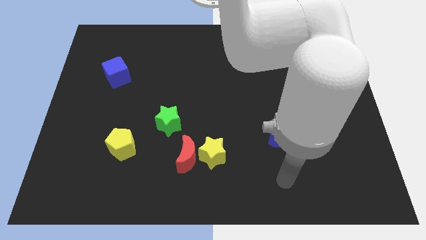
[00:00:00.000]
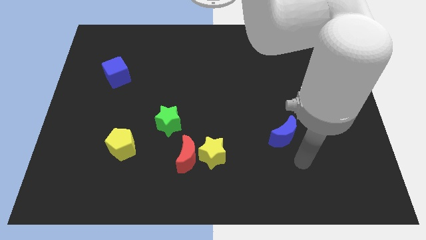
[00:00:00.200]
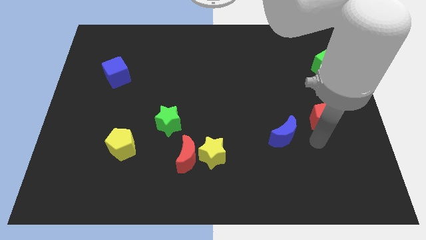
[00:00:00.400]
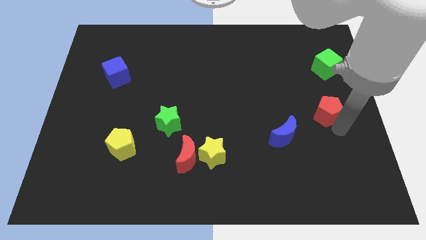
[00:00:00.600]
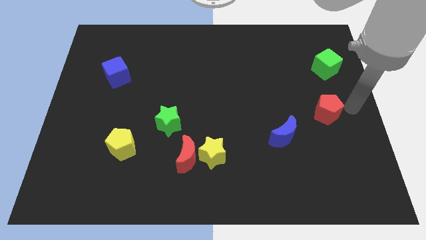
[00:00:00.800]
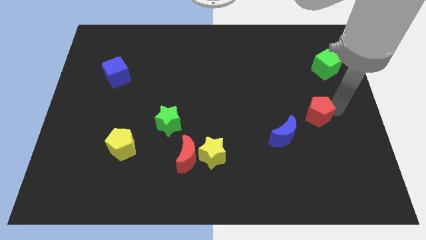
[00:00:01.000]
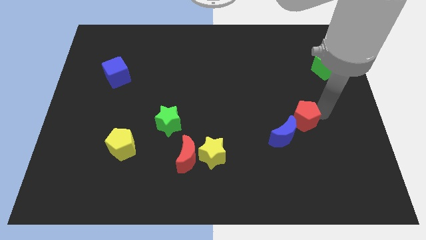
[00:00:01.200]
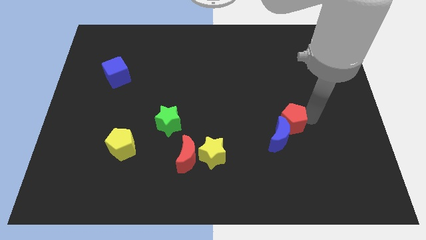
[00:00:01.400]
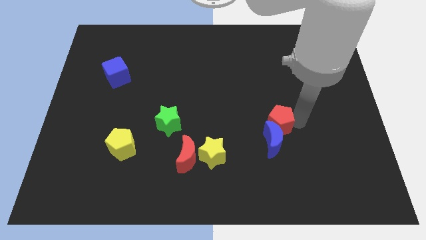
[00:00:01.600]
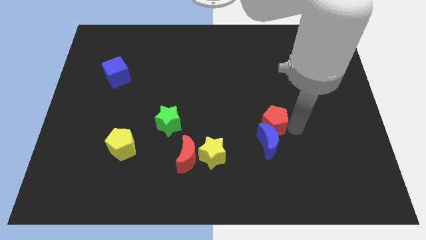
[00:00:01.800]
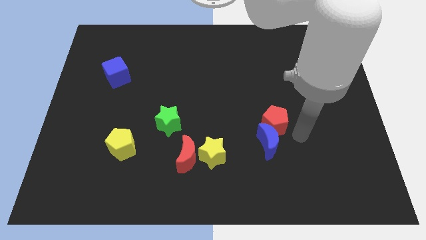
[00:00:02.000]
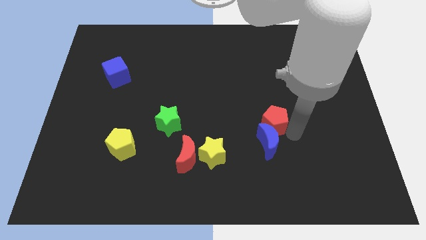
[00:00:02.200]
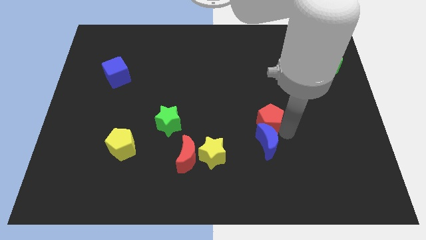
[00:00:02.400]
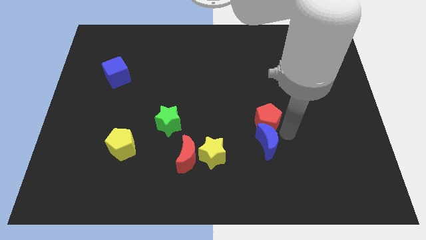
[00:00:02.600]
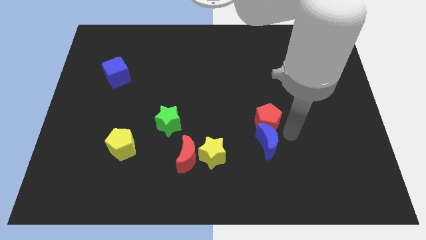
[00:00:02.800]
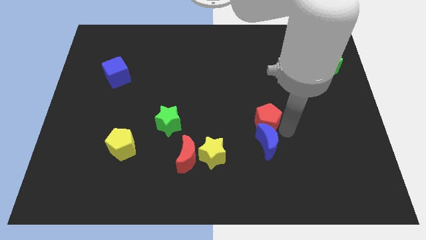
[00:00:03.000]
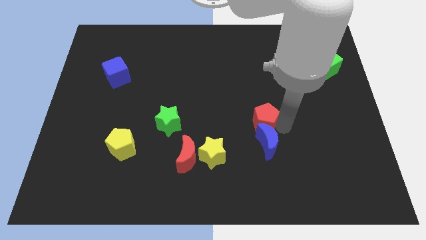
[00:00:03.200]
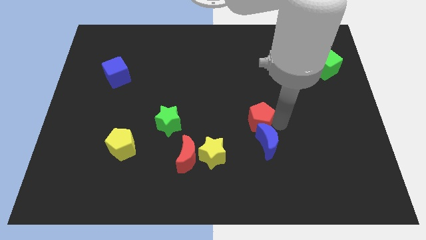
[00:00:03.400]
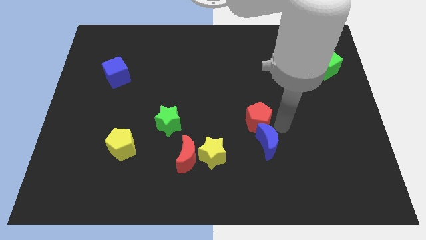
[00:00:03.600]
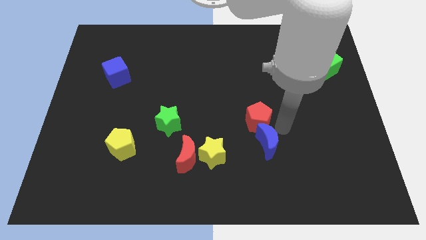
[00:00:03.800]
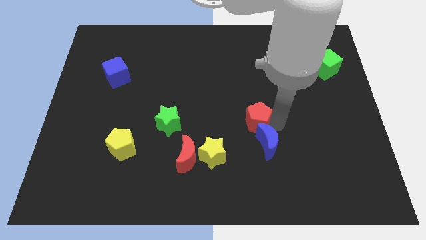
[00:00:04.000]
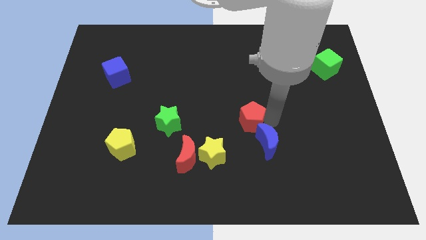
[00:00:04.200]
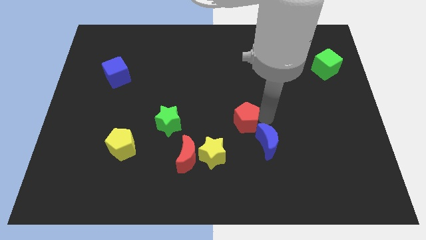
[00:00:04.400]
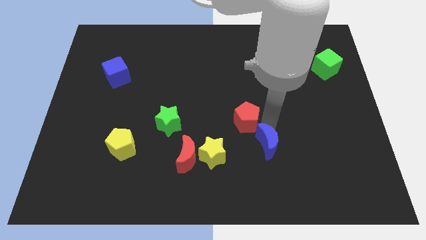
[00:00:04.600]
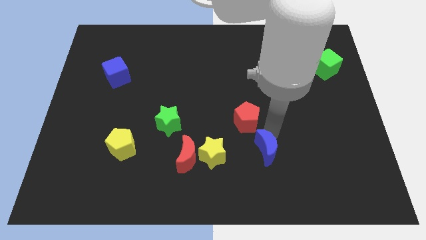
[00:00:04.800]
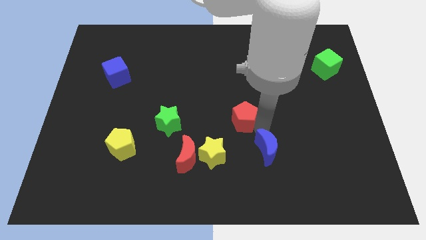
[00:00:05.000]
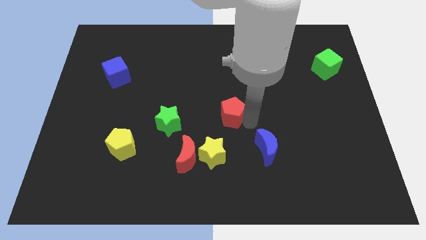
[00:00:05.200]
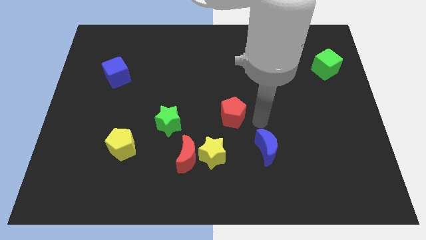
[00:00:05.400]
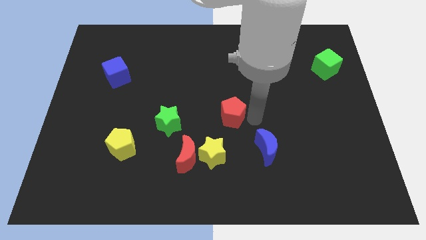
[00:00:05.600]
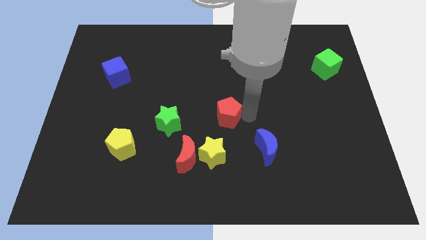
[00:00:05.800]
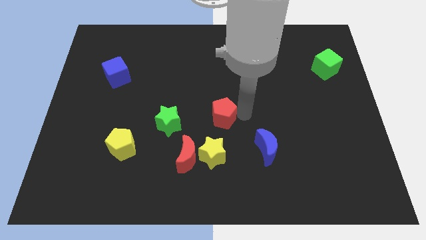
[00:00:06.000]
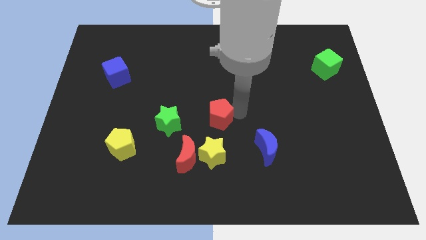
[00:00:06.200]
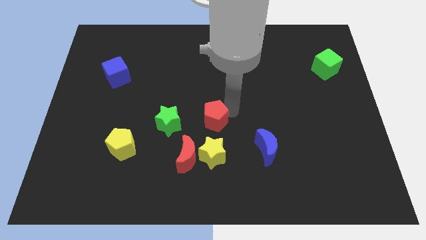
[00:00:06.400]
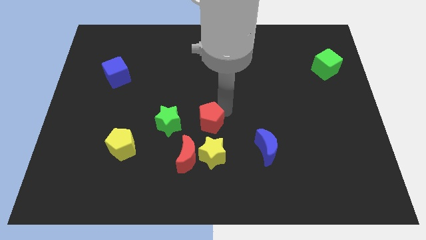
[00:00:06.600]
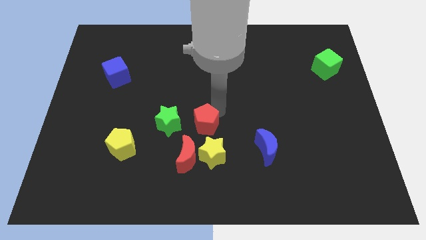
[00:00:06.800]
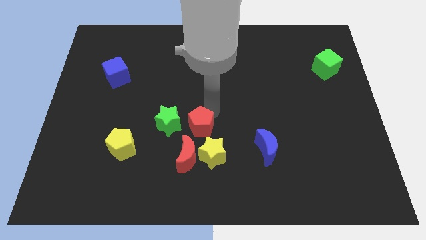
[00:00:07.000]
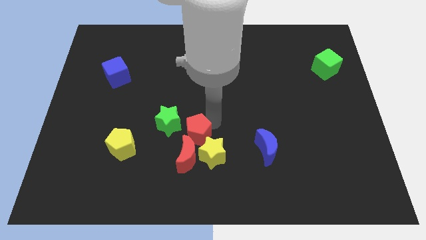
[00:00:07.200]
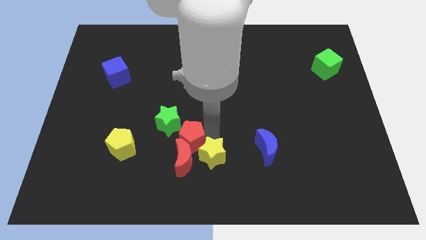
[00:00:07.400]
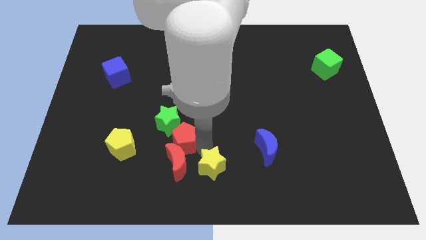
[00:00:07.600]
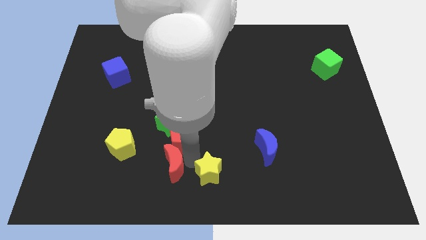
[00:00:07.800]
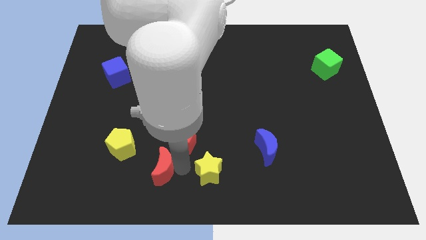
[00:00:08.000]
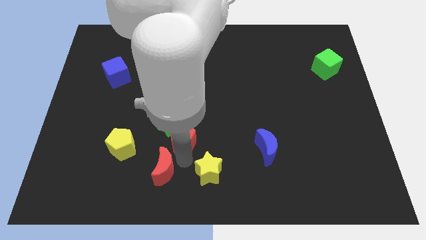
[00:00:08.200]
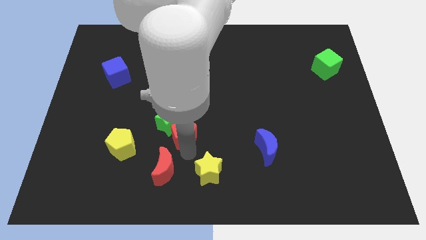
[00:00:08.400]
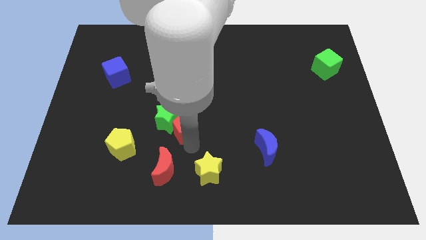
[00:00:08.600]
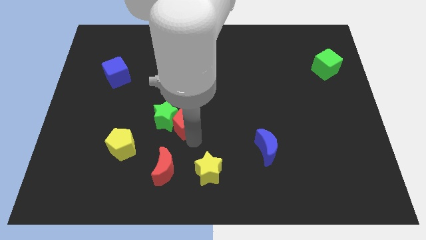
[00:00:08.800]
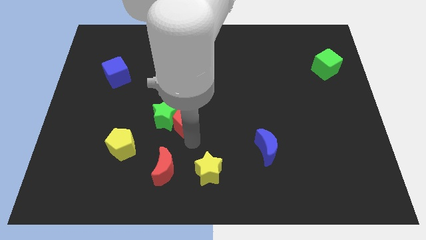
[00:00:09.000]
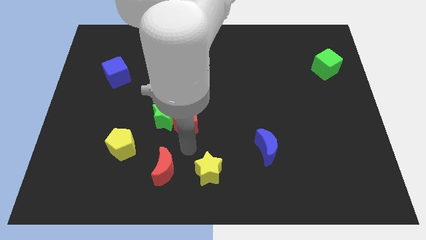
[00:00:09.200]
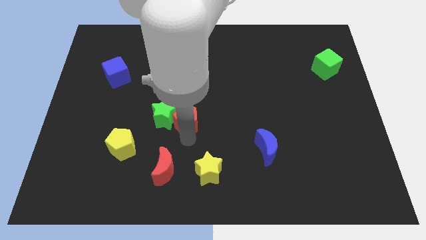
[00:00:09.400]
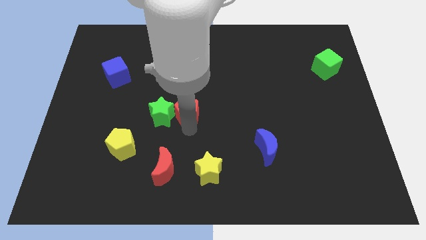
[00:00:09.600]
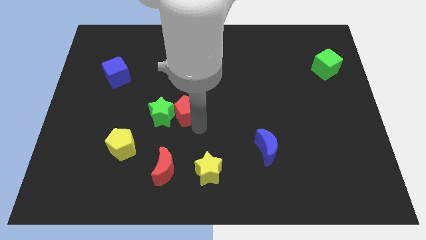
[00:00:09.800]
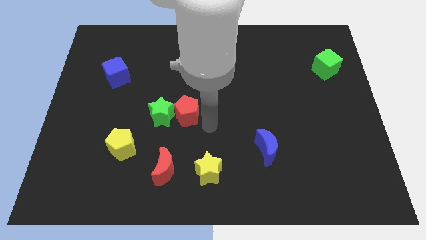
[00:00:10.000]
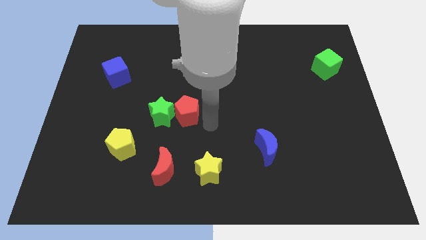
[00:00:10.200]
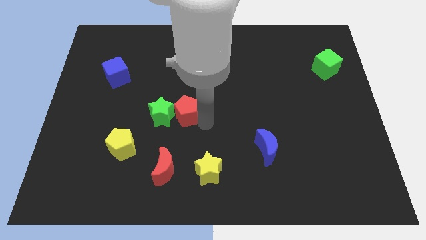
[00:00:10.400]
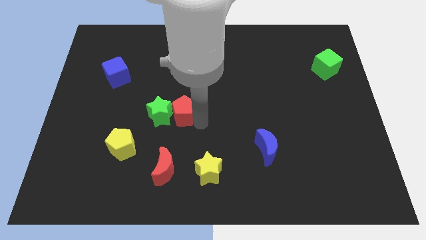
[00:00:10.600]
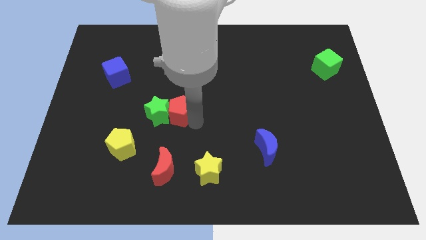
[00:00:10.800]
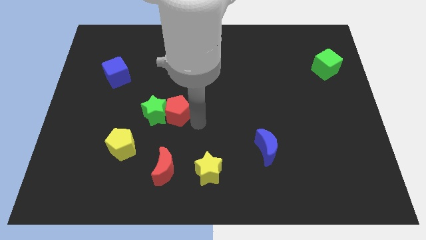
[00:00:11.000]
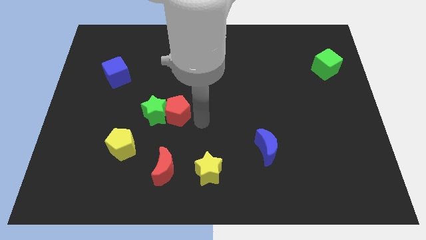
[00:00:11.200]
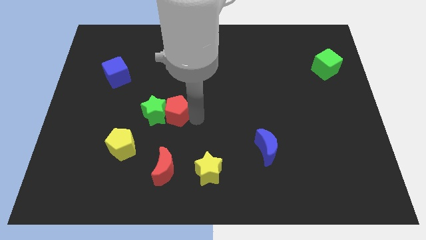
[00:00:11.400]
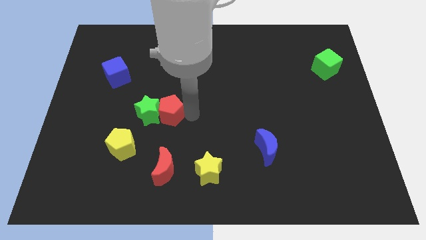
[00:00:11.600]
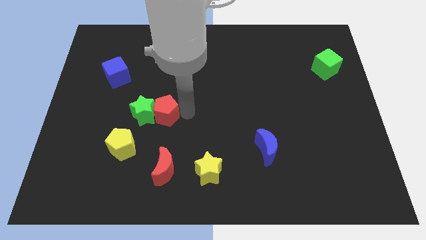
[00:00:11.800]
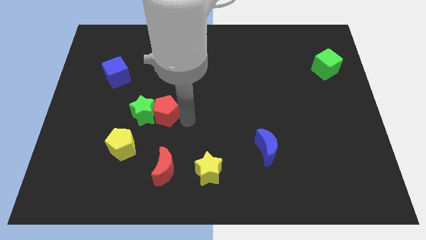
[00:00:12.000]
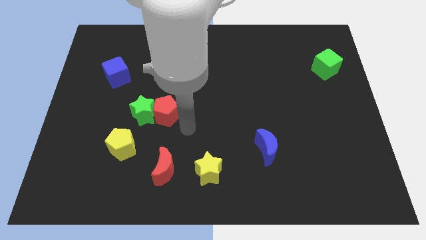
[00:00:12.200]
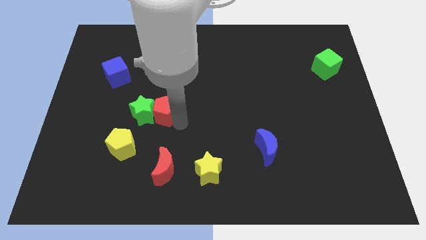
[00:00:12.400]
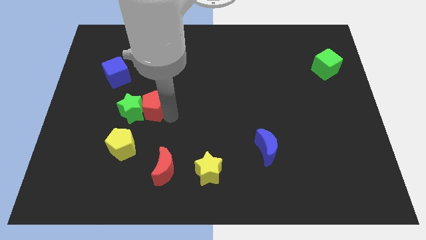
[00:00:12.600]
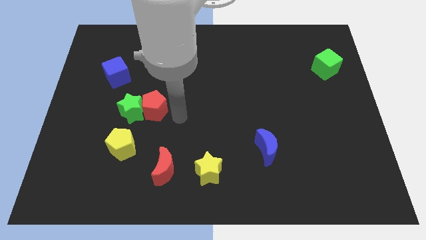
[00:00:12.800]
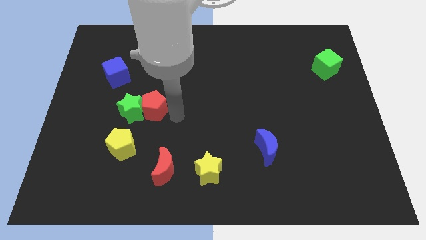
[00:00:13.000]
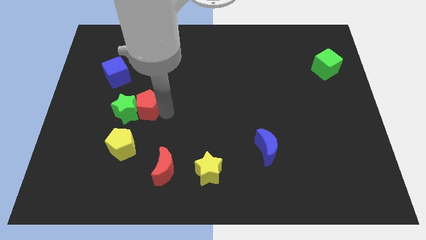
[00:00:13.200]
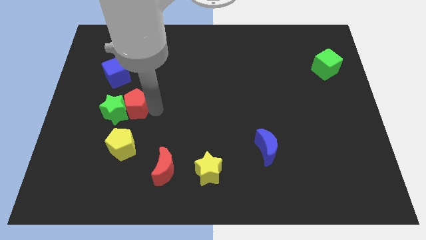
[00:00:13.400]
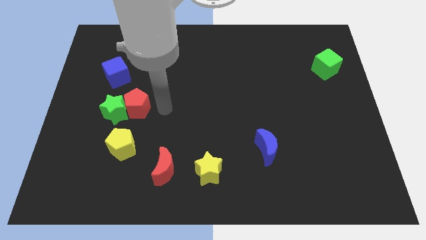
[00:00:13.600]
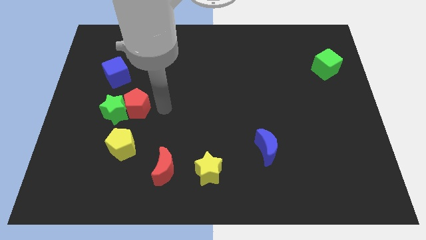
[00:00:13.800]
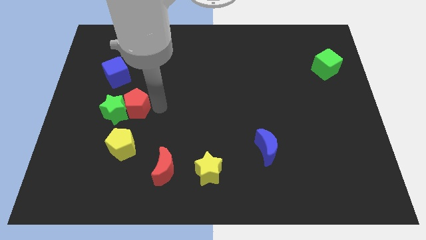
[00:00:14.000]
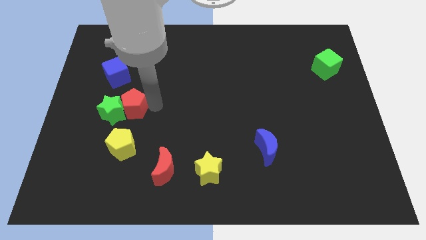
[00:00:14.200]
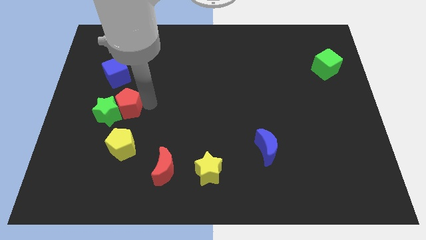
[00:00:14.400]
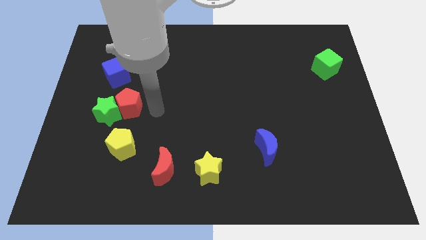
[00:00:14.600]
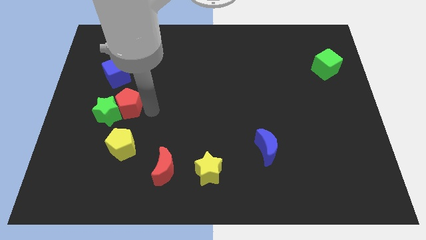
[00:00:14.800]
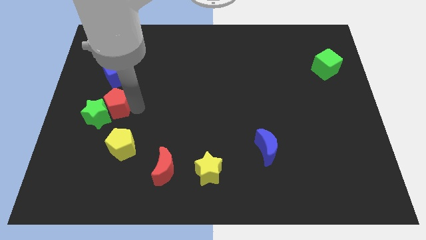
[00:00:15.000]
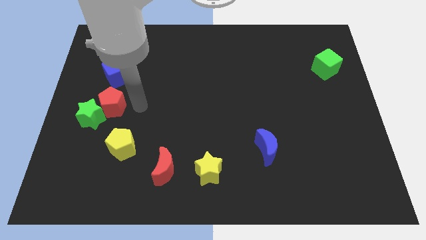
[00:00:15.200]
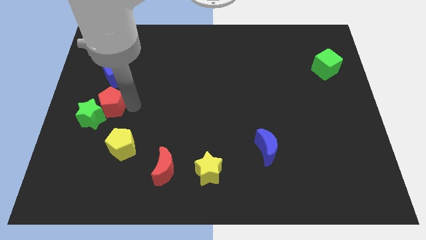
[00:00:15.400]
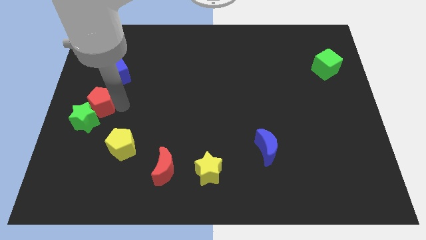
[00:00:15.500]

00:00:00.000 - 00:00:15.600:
put the red pentagon to the center left
